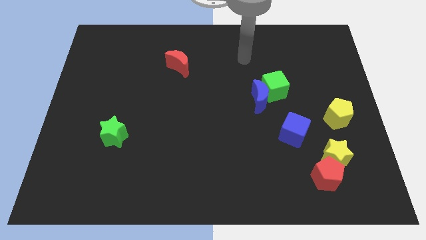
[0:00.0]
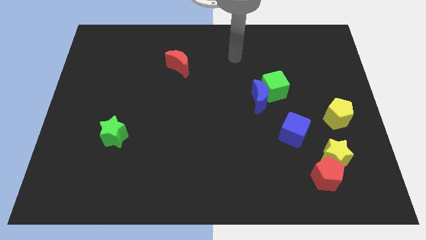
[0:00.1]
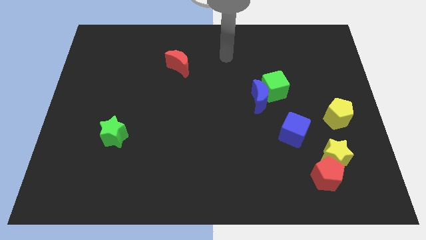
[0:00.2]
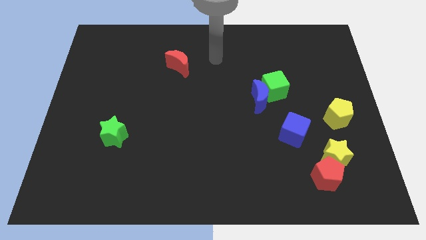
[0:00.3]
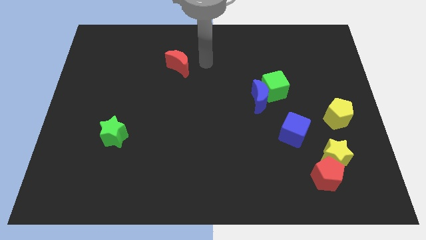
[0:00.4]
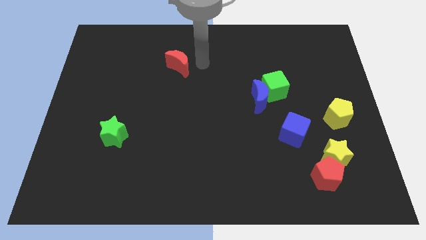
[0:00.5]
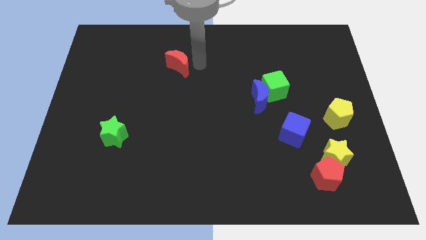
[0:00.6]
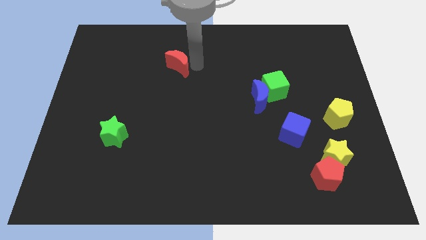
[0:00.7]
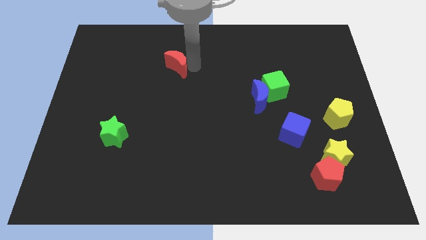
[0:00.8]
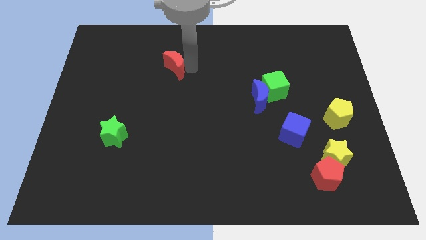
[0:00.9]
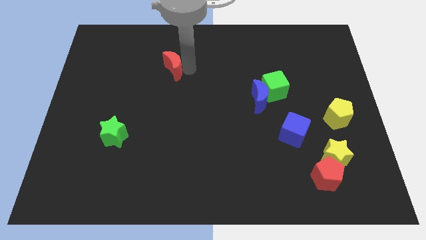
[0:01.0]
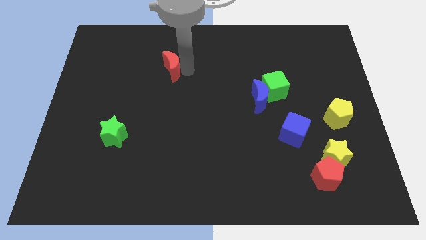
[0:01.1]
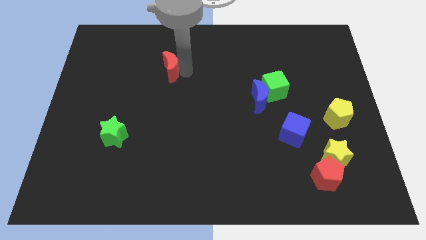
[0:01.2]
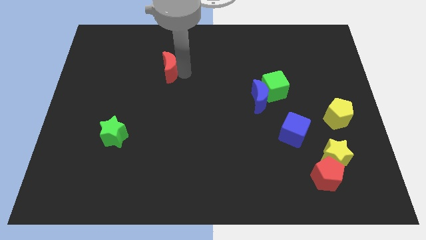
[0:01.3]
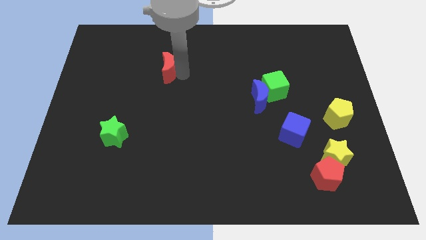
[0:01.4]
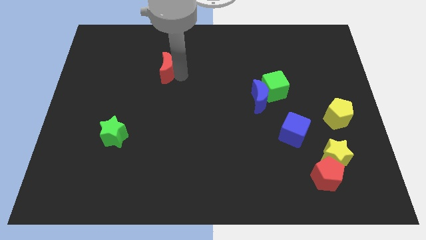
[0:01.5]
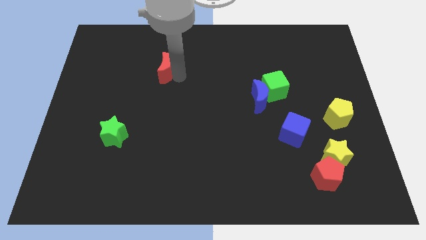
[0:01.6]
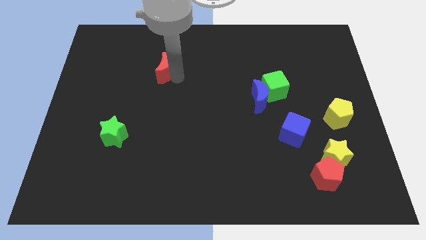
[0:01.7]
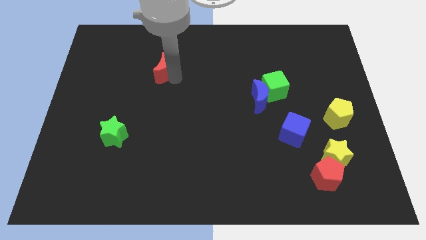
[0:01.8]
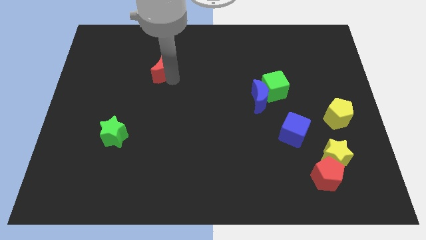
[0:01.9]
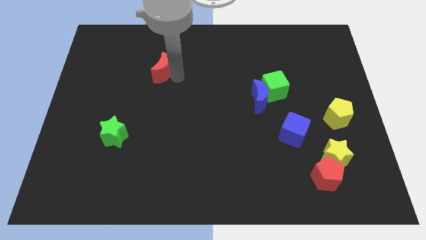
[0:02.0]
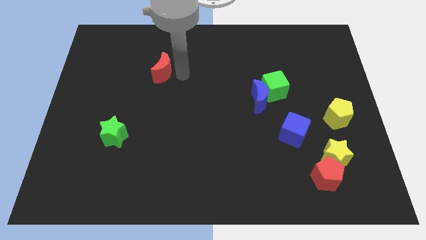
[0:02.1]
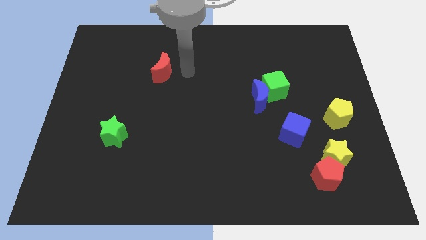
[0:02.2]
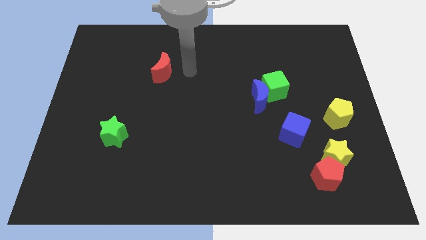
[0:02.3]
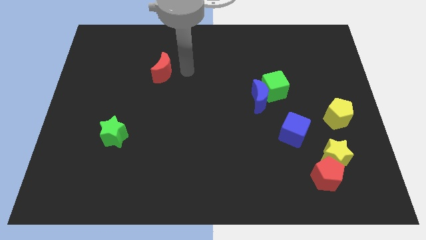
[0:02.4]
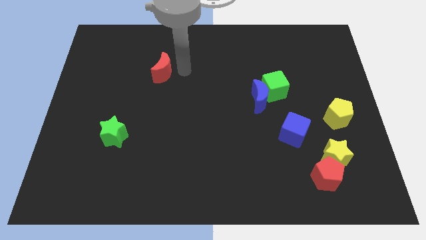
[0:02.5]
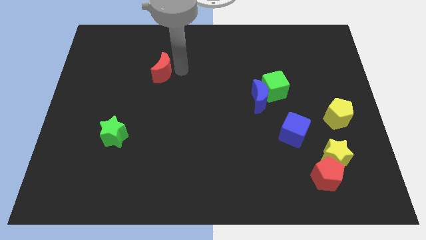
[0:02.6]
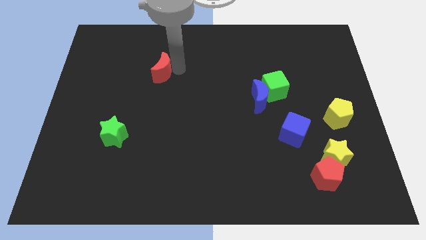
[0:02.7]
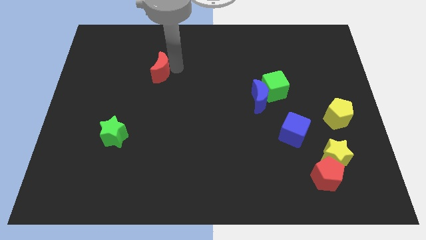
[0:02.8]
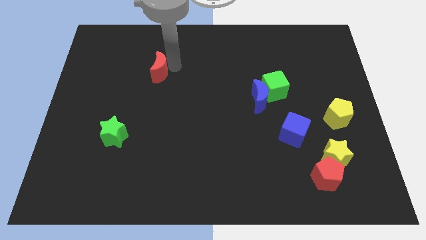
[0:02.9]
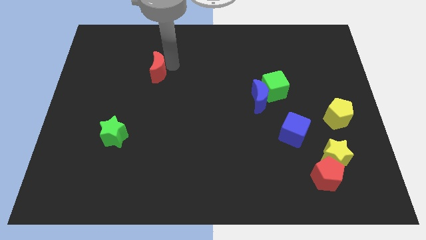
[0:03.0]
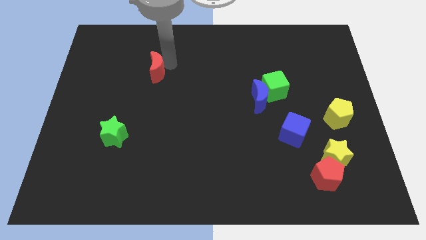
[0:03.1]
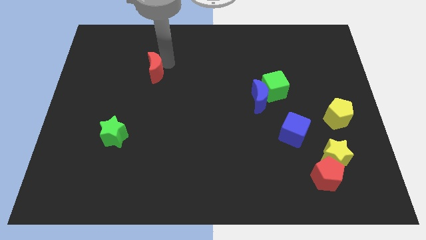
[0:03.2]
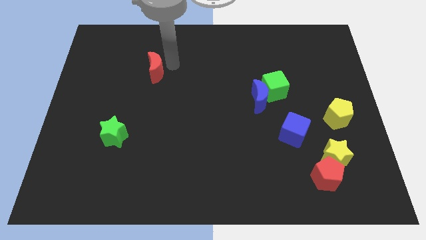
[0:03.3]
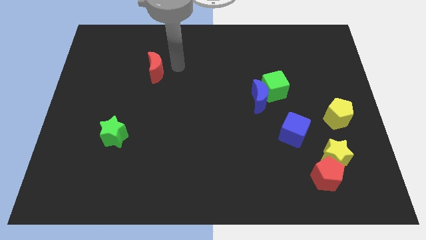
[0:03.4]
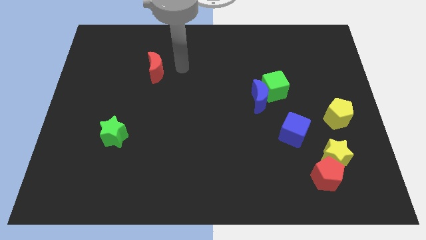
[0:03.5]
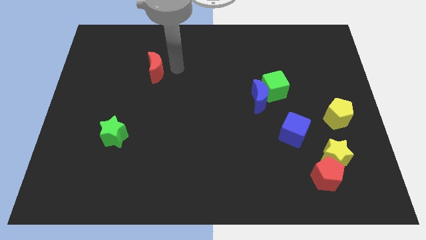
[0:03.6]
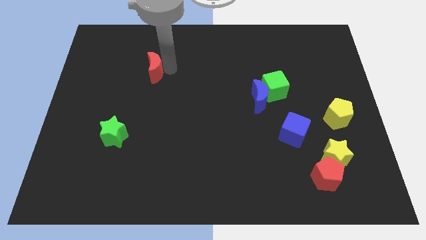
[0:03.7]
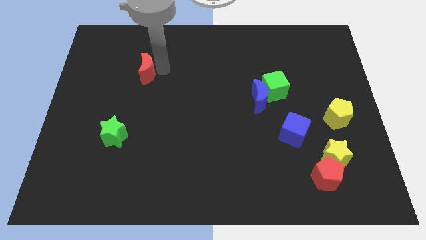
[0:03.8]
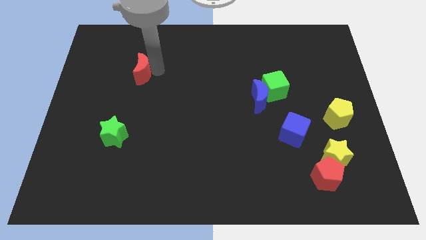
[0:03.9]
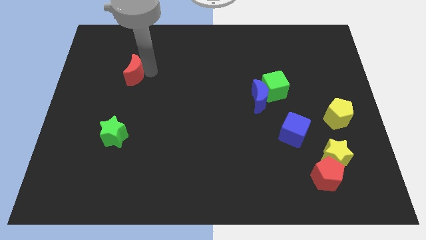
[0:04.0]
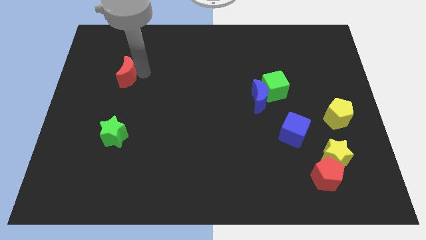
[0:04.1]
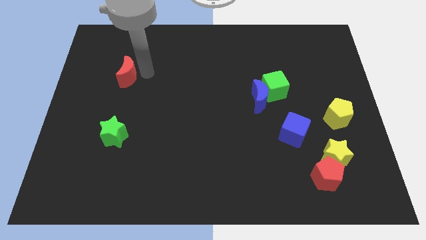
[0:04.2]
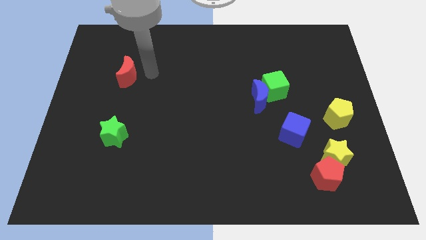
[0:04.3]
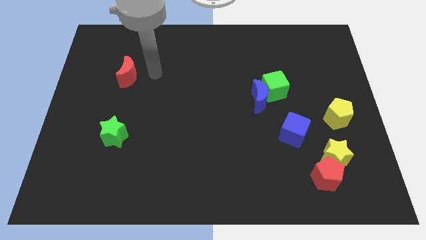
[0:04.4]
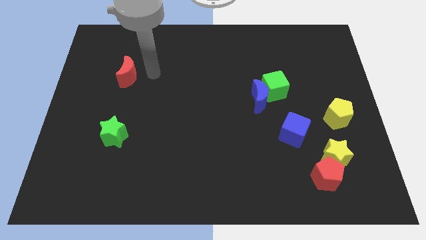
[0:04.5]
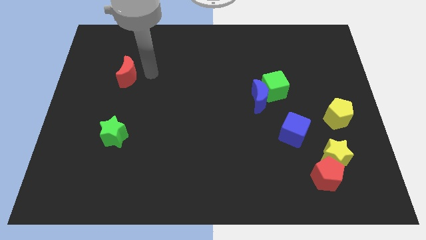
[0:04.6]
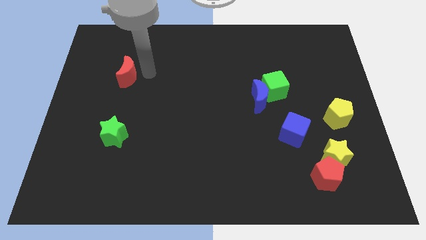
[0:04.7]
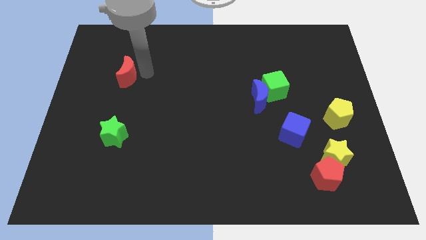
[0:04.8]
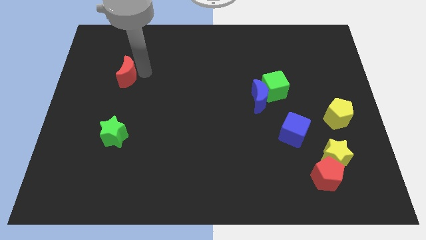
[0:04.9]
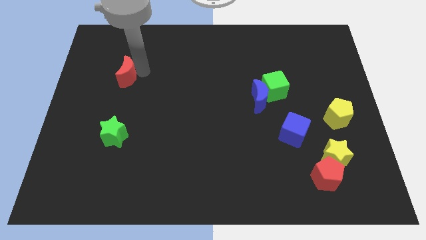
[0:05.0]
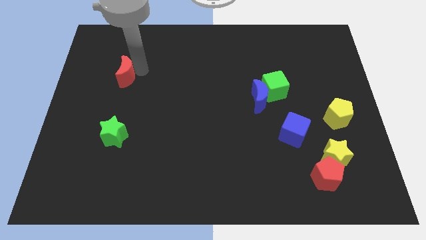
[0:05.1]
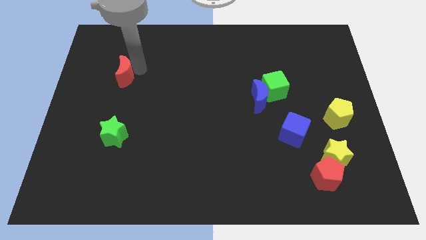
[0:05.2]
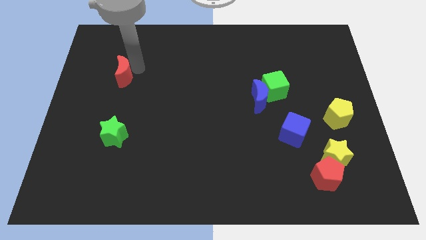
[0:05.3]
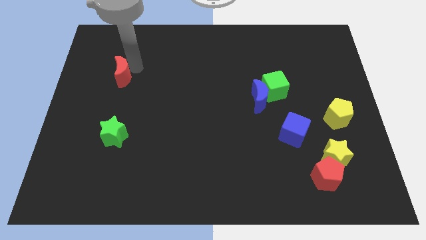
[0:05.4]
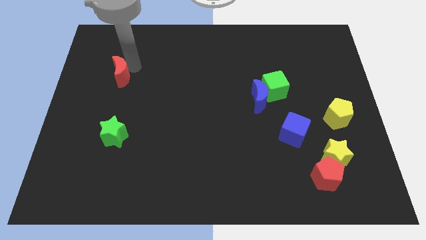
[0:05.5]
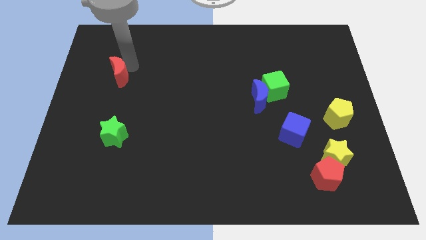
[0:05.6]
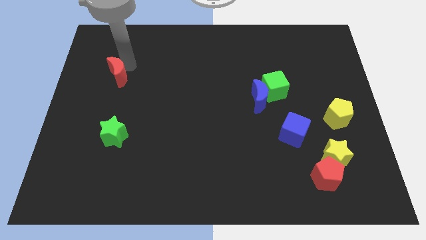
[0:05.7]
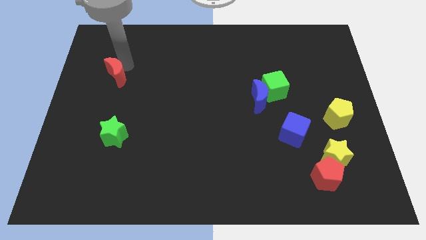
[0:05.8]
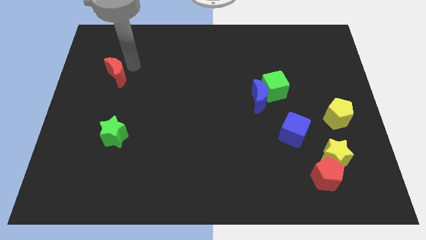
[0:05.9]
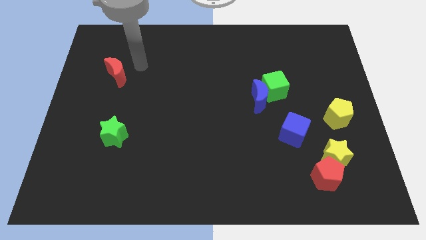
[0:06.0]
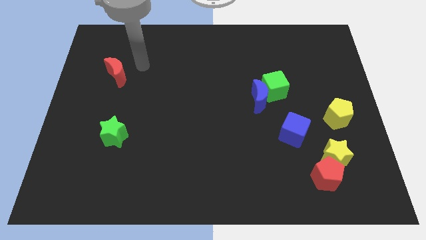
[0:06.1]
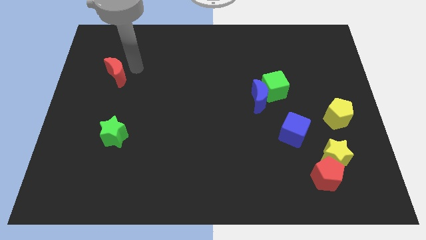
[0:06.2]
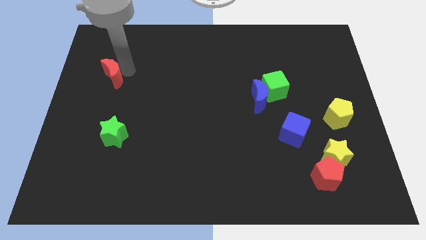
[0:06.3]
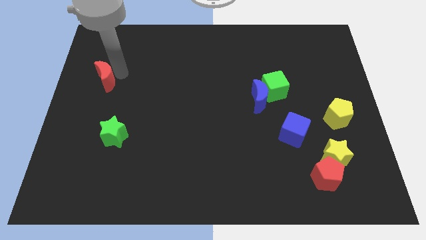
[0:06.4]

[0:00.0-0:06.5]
push the red moon to the center left
